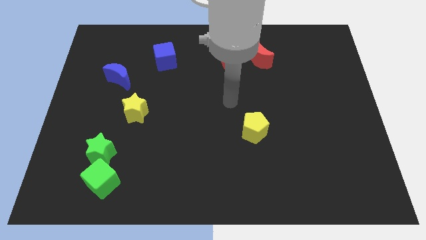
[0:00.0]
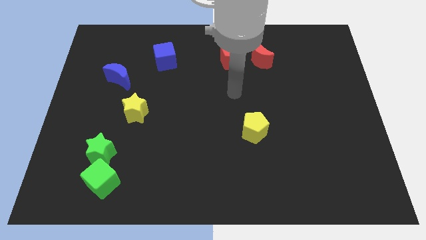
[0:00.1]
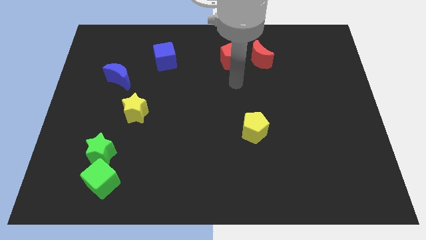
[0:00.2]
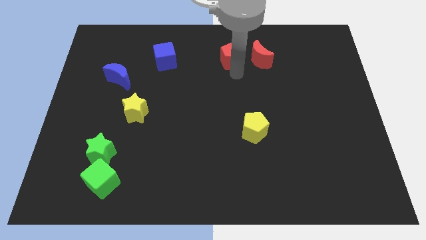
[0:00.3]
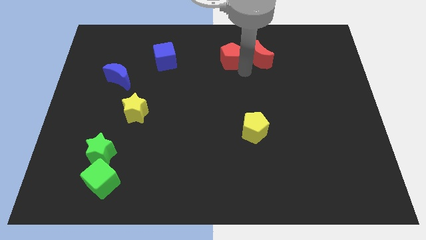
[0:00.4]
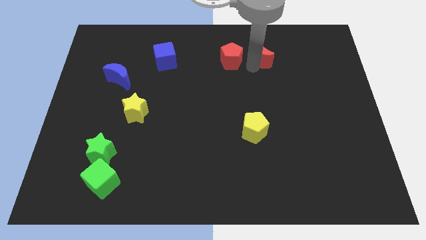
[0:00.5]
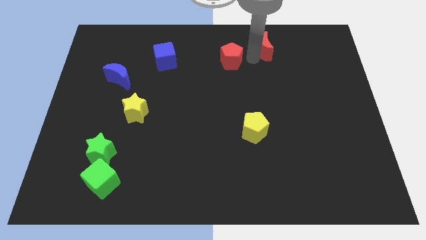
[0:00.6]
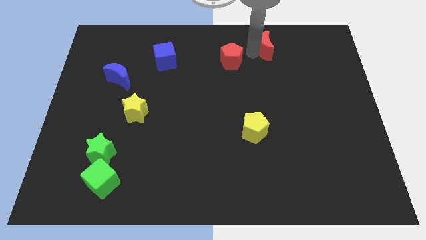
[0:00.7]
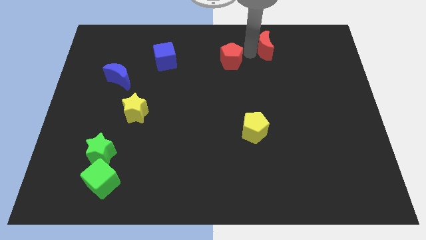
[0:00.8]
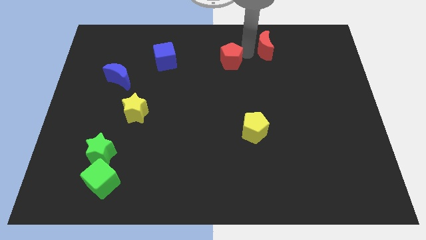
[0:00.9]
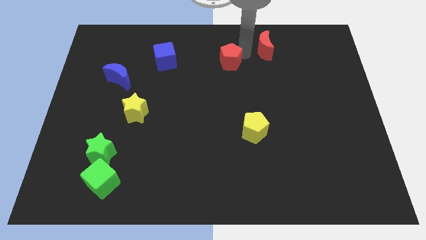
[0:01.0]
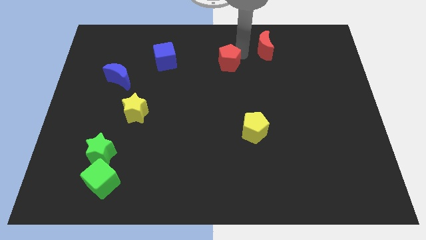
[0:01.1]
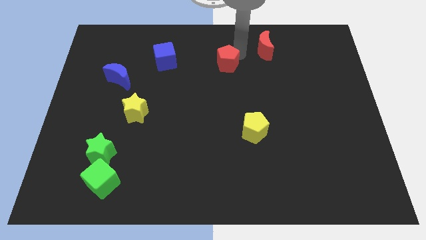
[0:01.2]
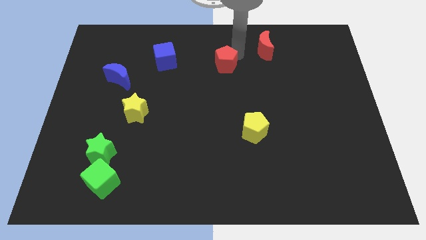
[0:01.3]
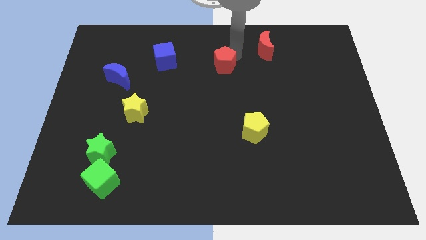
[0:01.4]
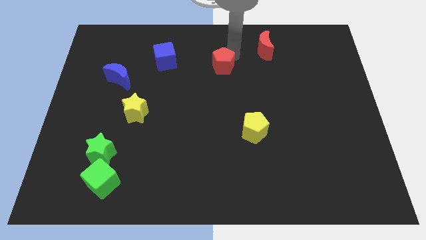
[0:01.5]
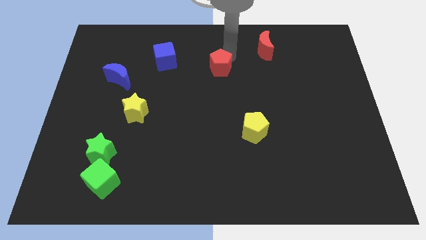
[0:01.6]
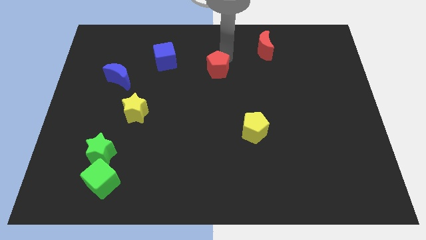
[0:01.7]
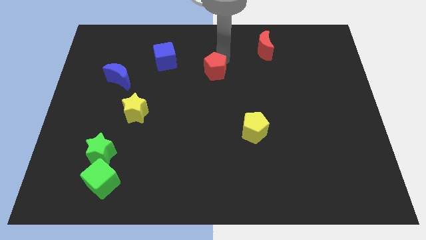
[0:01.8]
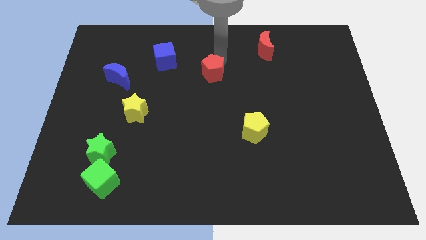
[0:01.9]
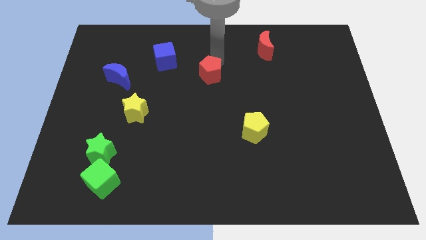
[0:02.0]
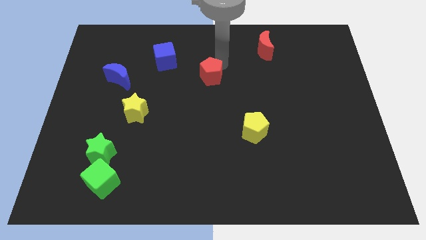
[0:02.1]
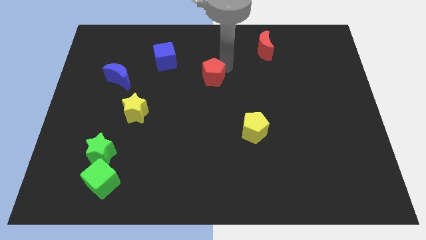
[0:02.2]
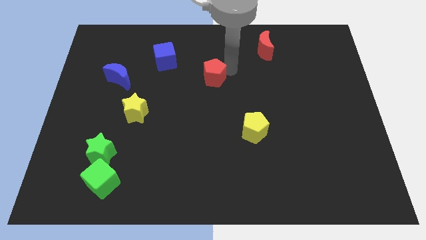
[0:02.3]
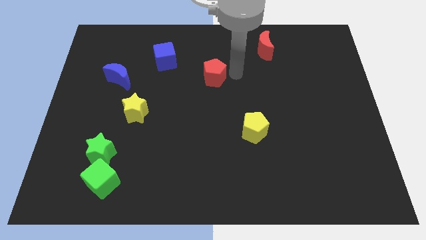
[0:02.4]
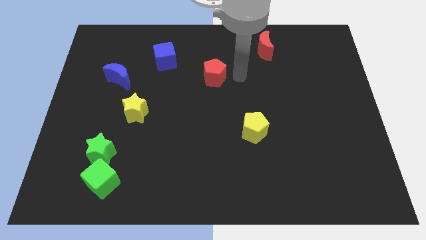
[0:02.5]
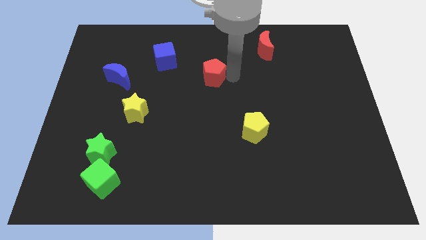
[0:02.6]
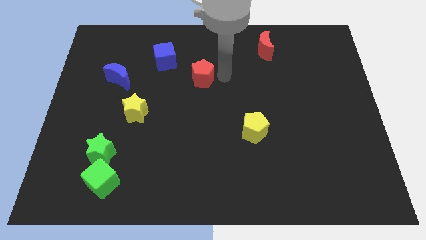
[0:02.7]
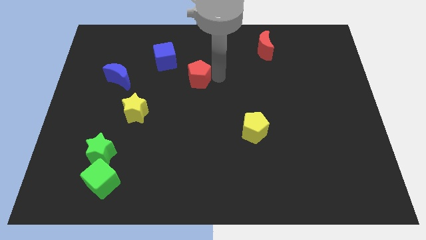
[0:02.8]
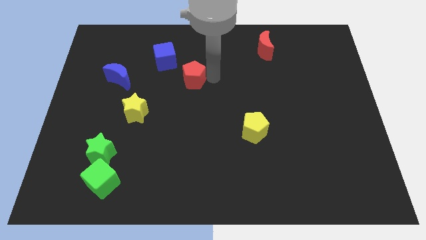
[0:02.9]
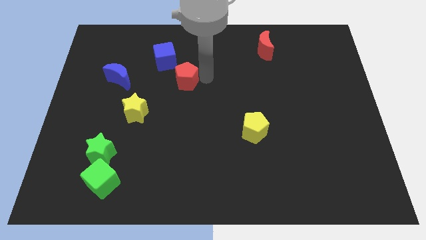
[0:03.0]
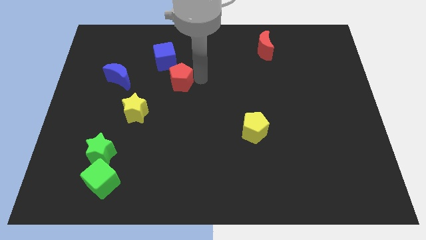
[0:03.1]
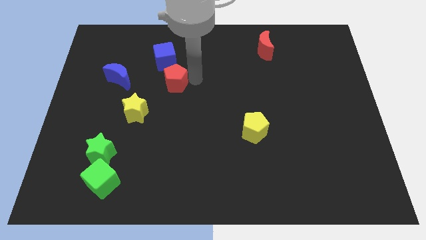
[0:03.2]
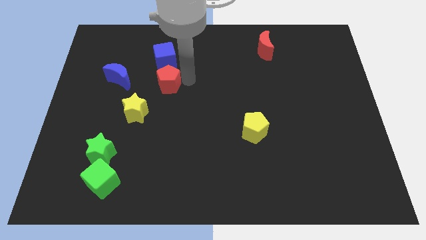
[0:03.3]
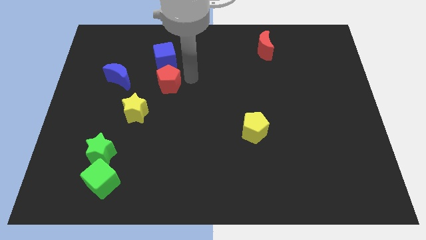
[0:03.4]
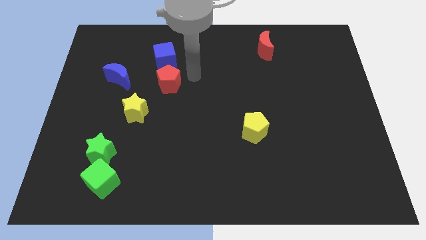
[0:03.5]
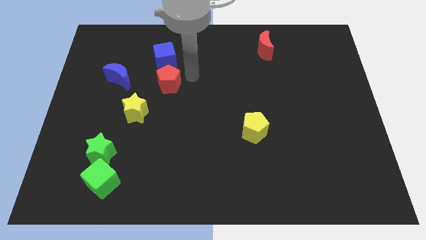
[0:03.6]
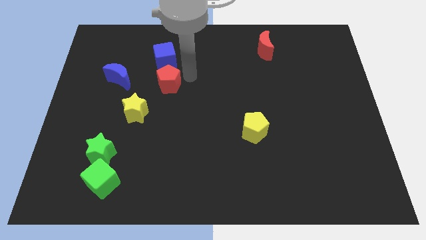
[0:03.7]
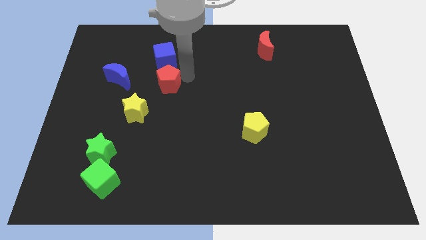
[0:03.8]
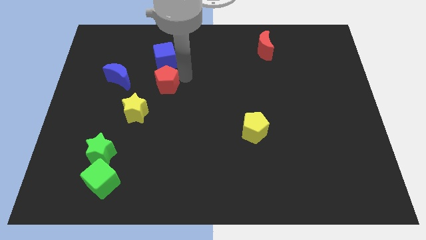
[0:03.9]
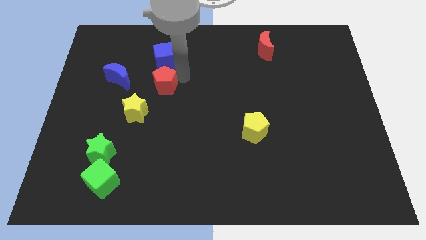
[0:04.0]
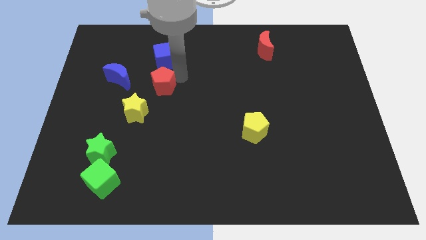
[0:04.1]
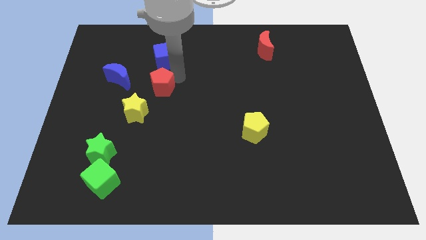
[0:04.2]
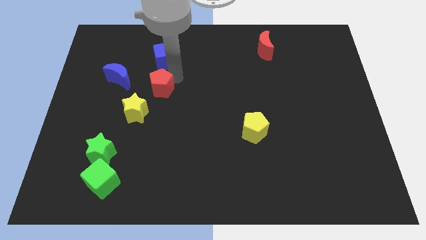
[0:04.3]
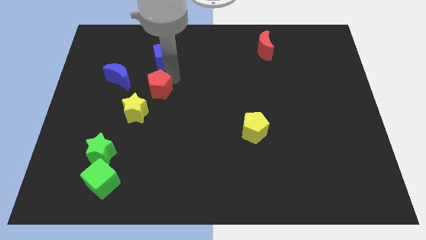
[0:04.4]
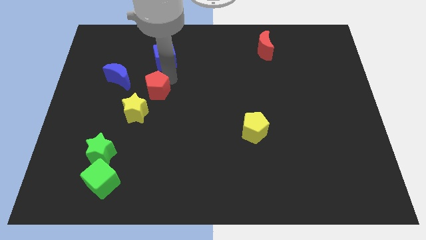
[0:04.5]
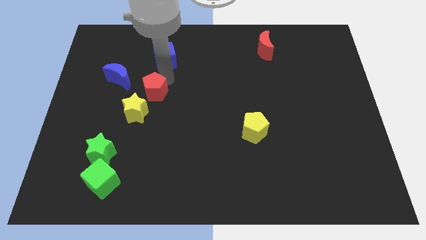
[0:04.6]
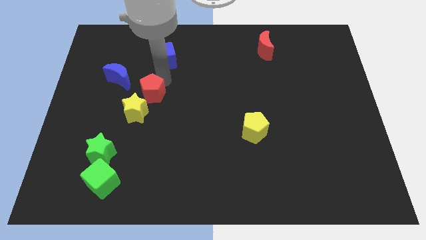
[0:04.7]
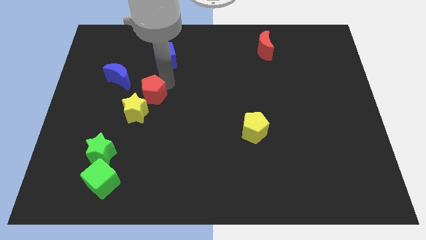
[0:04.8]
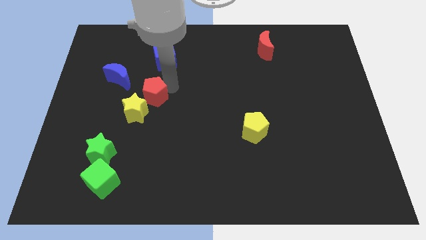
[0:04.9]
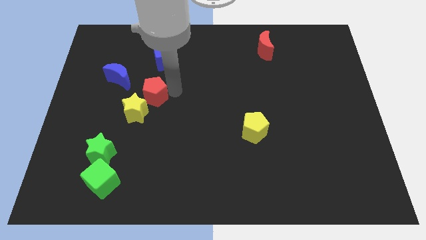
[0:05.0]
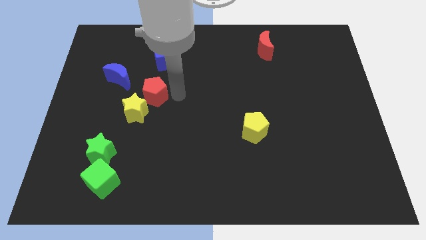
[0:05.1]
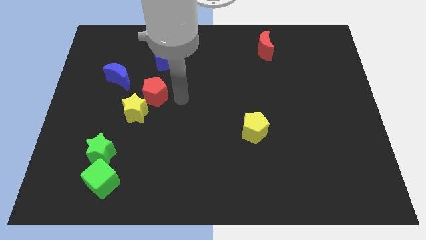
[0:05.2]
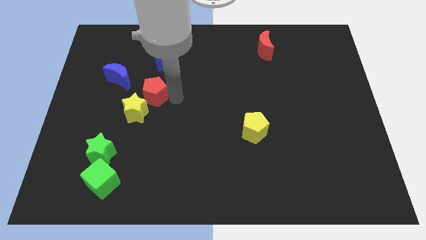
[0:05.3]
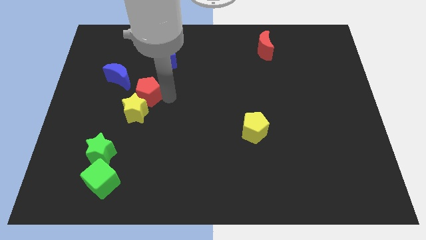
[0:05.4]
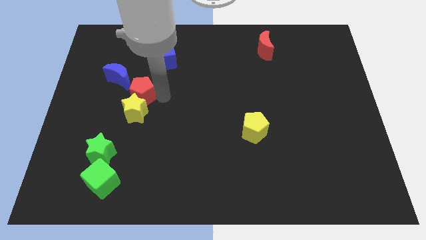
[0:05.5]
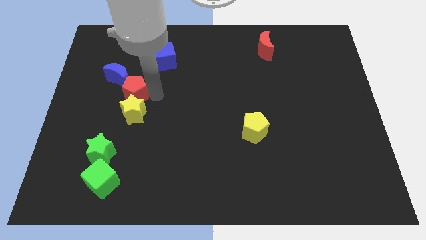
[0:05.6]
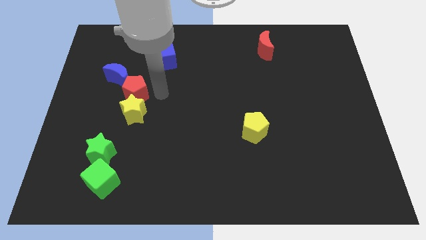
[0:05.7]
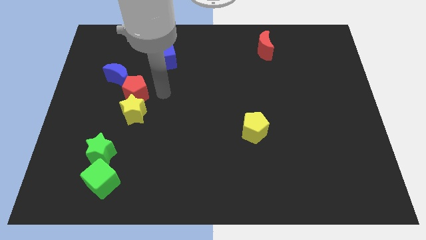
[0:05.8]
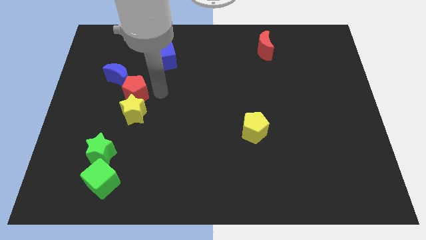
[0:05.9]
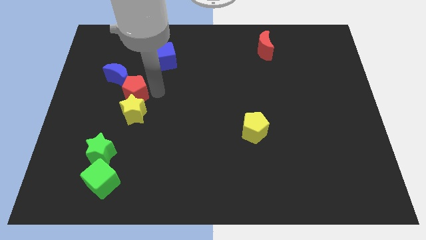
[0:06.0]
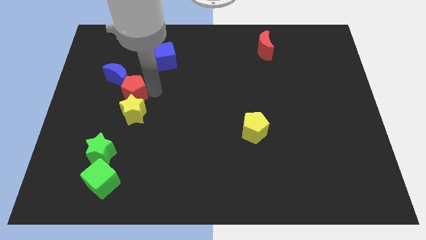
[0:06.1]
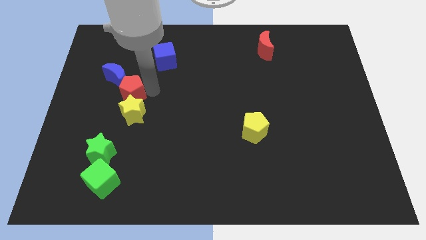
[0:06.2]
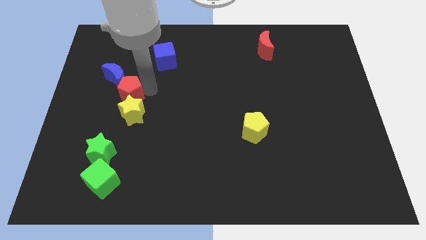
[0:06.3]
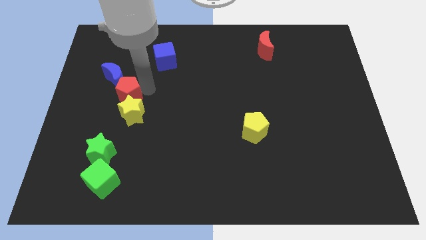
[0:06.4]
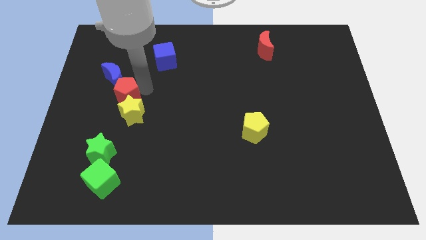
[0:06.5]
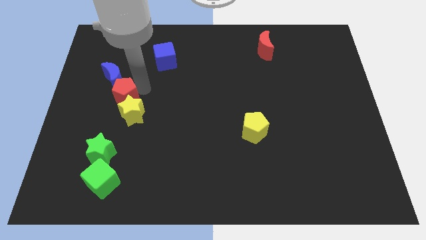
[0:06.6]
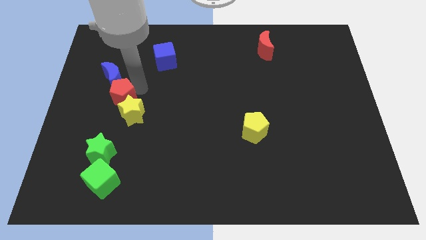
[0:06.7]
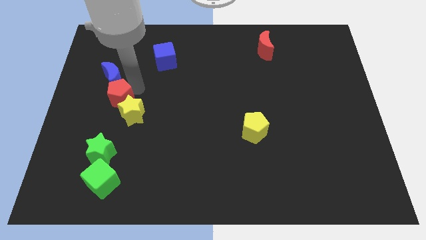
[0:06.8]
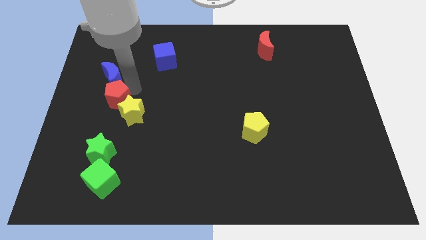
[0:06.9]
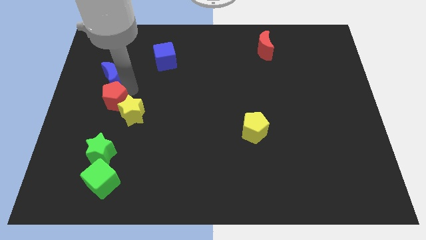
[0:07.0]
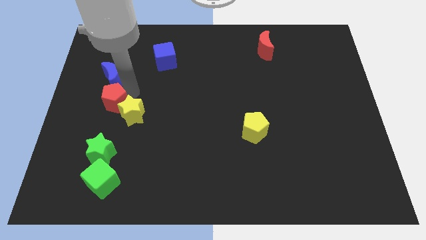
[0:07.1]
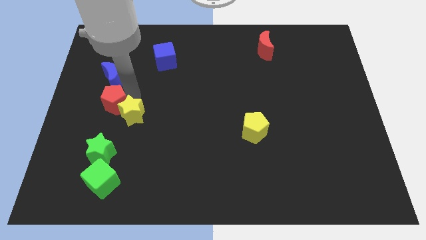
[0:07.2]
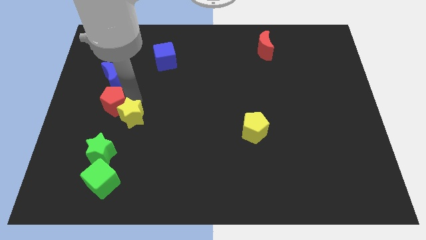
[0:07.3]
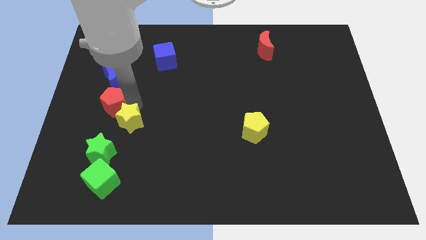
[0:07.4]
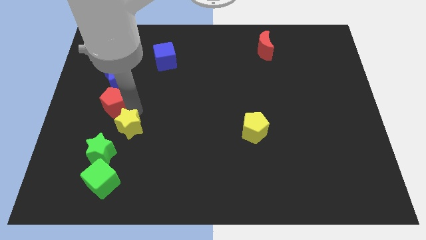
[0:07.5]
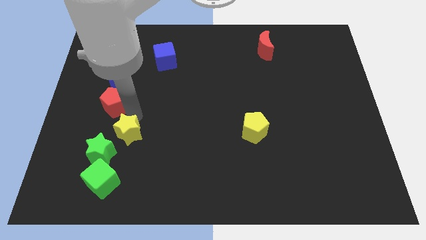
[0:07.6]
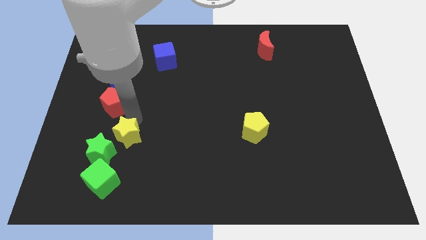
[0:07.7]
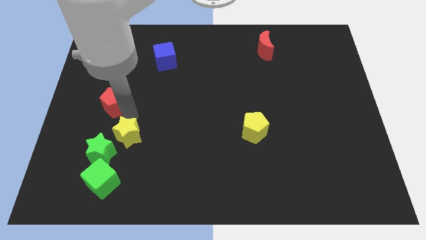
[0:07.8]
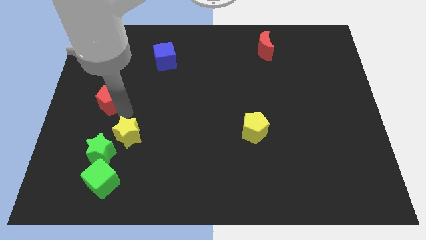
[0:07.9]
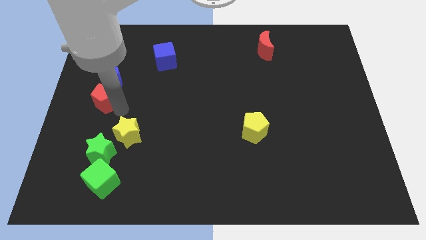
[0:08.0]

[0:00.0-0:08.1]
move the red pentagon to the center left
